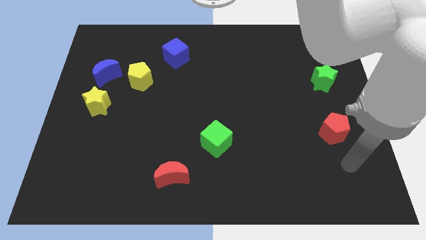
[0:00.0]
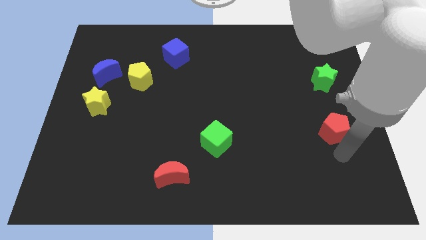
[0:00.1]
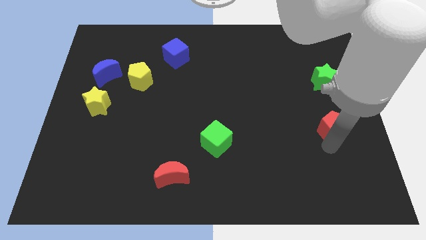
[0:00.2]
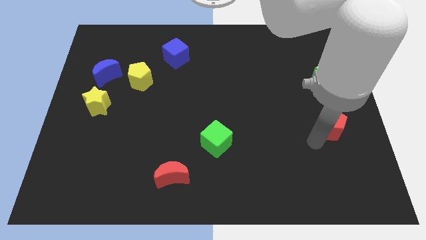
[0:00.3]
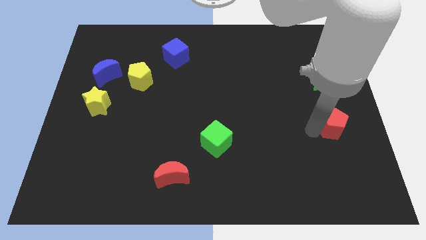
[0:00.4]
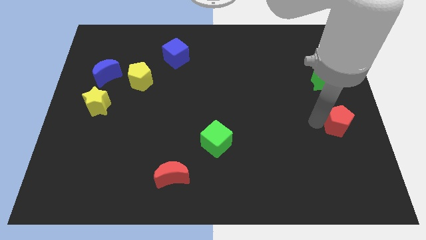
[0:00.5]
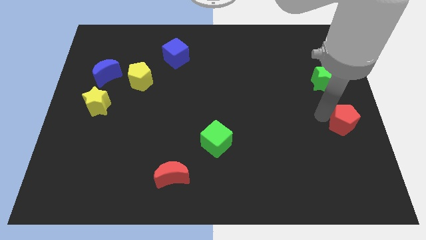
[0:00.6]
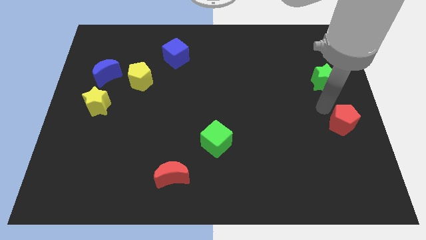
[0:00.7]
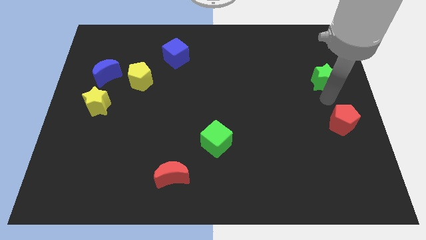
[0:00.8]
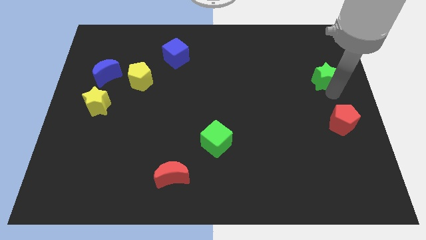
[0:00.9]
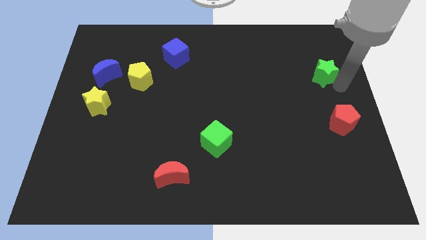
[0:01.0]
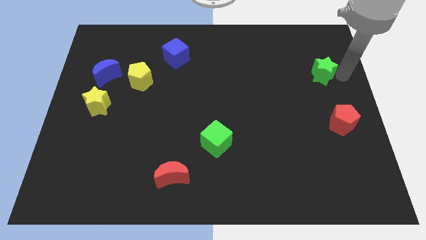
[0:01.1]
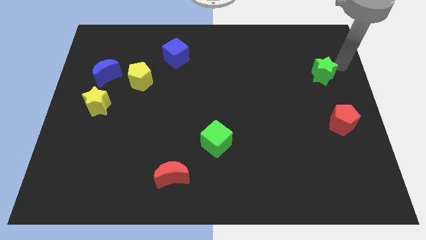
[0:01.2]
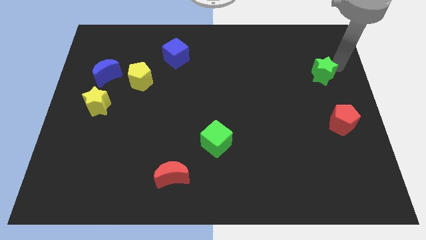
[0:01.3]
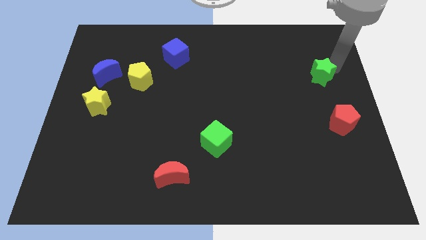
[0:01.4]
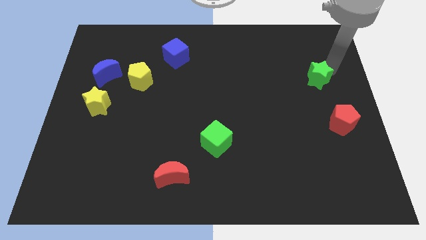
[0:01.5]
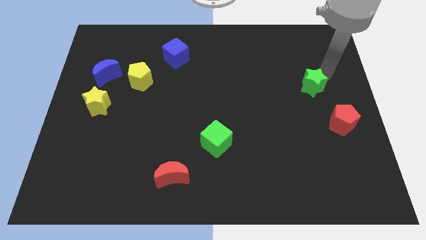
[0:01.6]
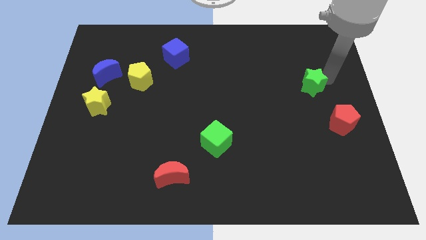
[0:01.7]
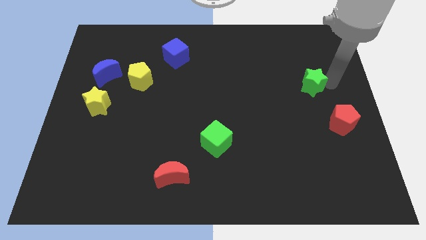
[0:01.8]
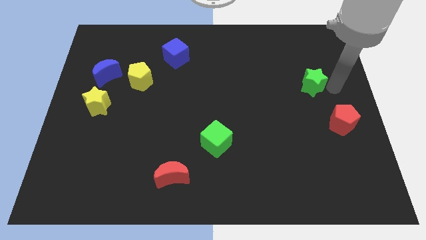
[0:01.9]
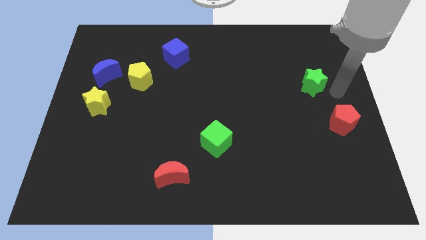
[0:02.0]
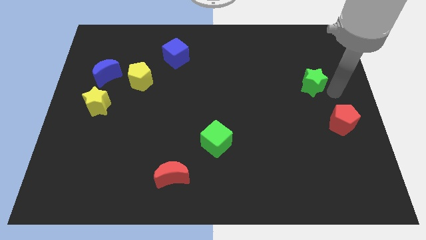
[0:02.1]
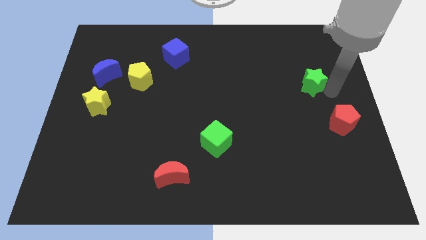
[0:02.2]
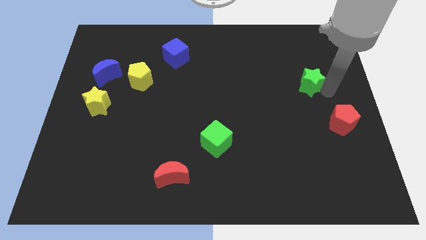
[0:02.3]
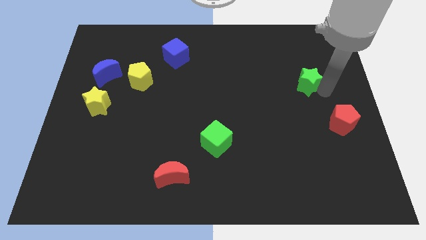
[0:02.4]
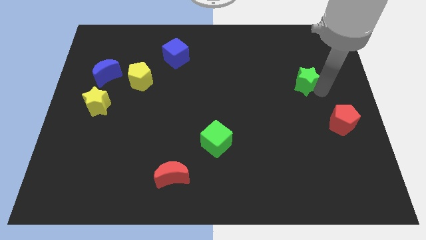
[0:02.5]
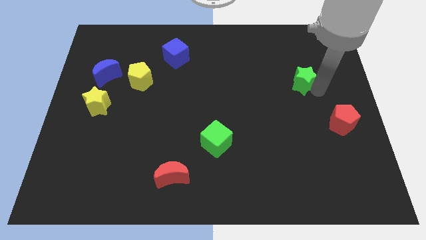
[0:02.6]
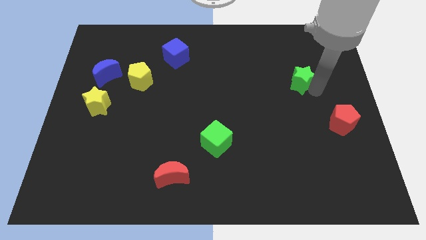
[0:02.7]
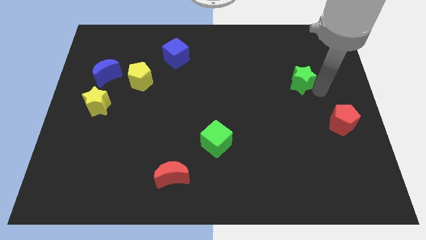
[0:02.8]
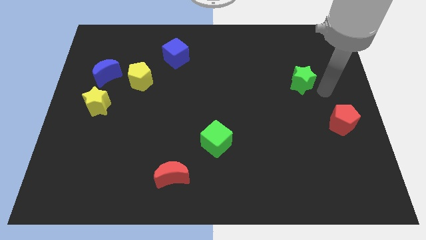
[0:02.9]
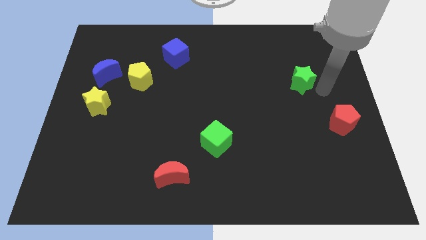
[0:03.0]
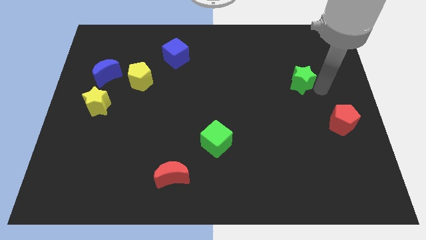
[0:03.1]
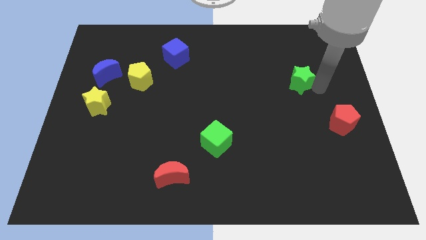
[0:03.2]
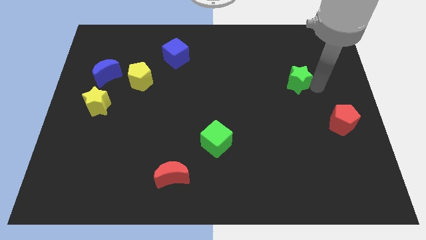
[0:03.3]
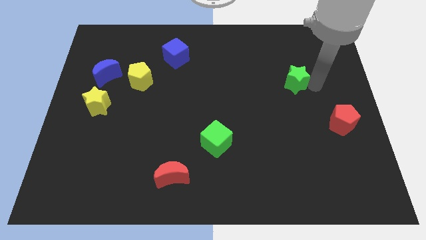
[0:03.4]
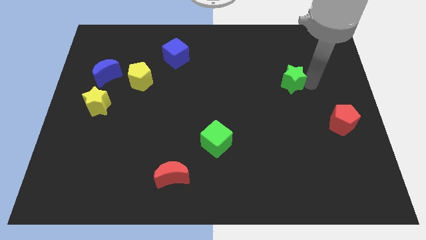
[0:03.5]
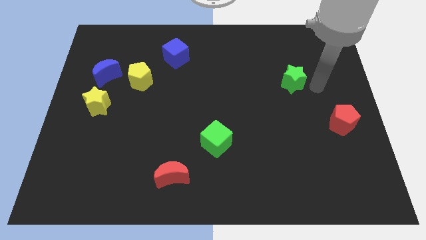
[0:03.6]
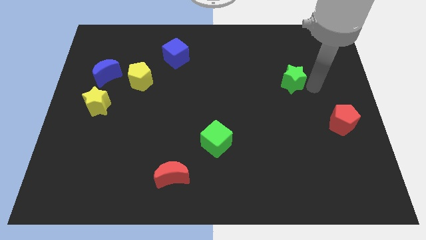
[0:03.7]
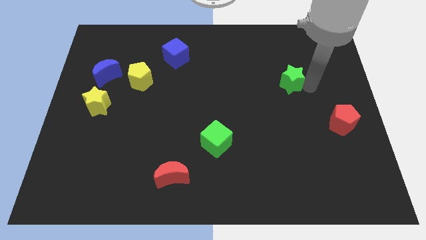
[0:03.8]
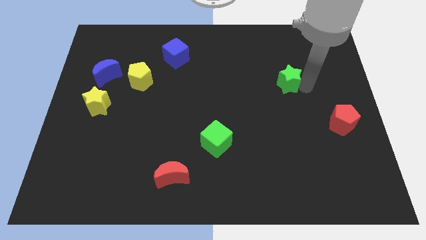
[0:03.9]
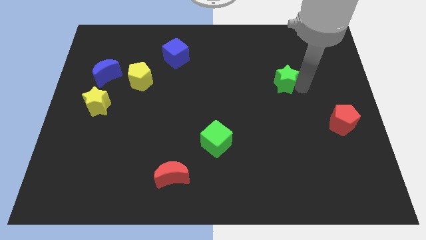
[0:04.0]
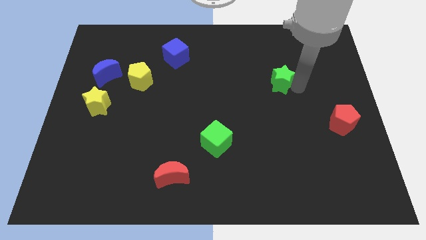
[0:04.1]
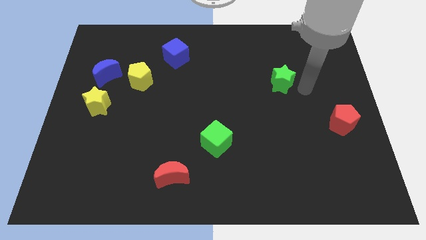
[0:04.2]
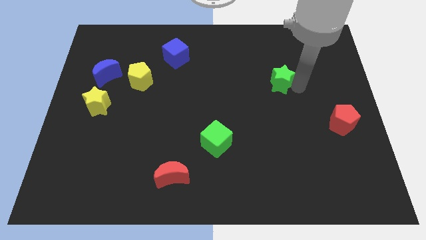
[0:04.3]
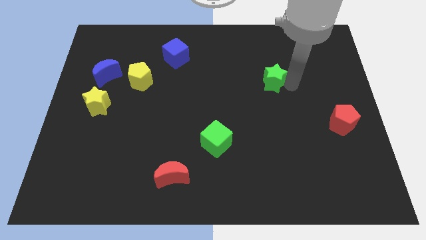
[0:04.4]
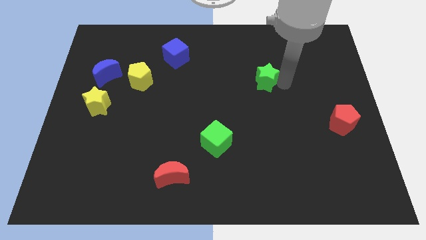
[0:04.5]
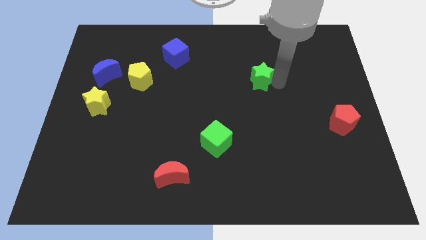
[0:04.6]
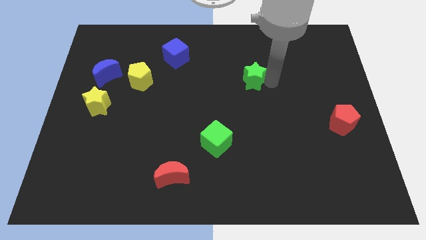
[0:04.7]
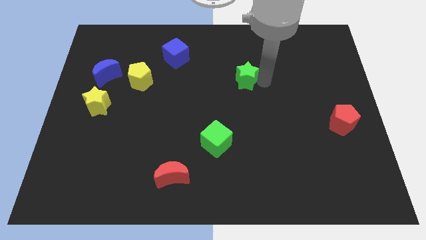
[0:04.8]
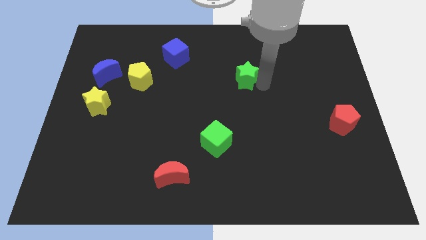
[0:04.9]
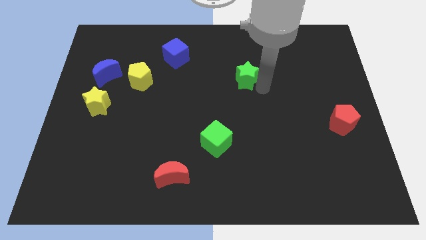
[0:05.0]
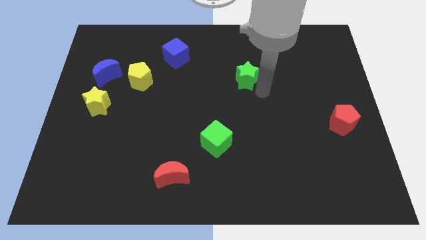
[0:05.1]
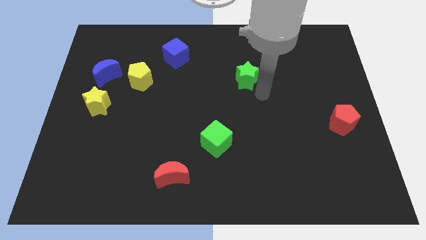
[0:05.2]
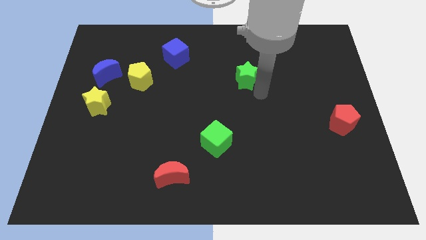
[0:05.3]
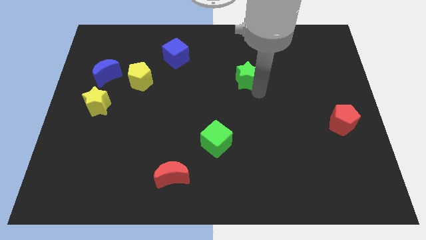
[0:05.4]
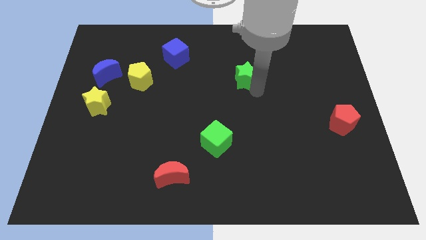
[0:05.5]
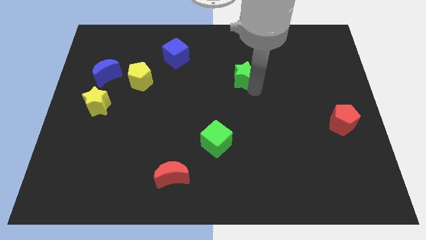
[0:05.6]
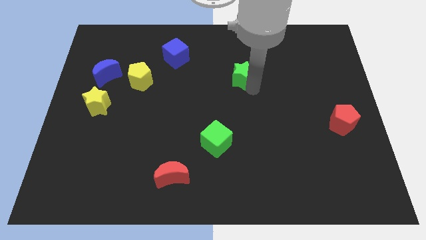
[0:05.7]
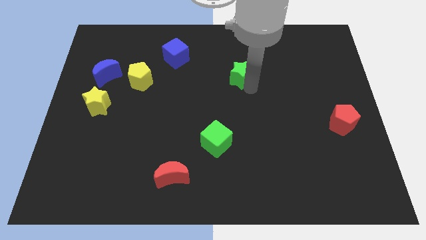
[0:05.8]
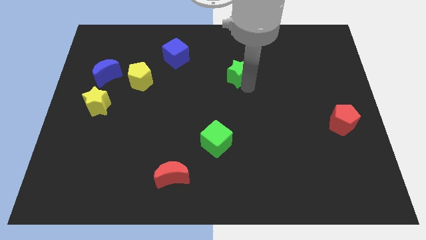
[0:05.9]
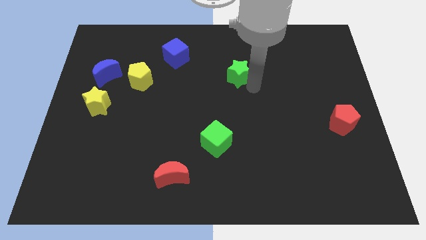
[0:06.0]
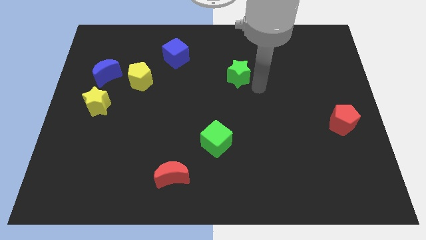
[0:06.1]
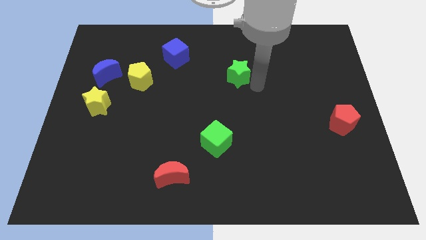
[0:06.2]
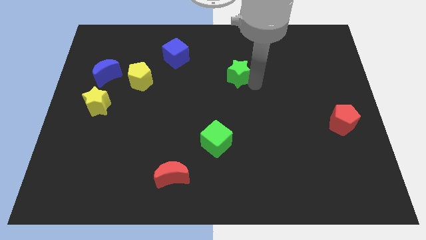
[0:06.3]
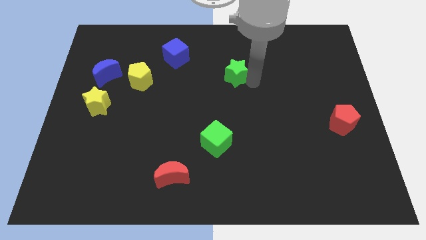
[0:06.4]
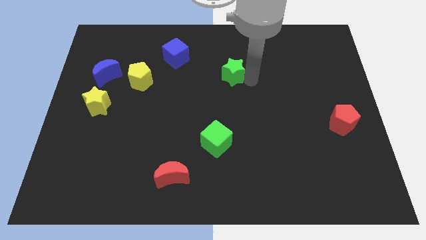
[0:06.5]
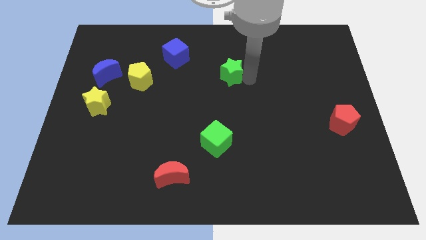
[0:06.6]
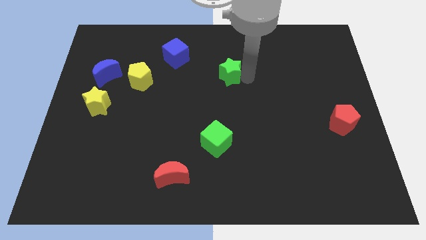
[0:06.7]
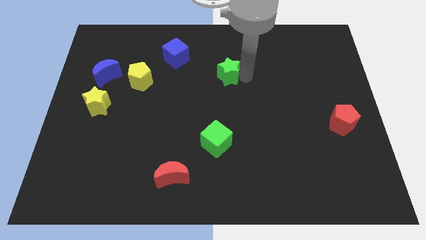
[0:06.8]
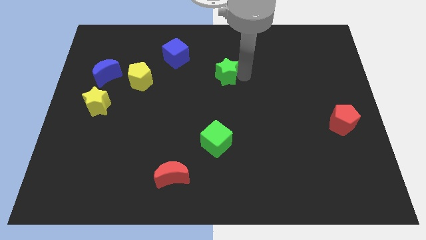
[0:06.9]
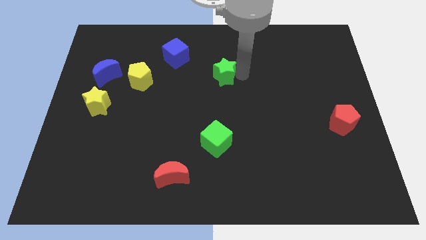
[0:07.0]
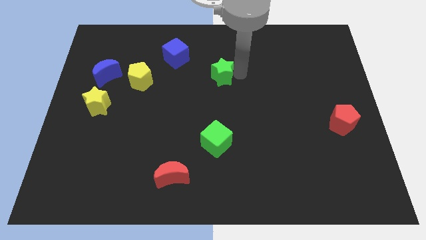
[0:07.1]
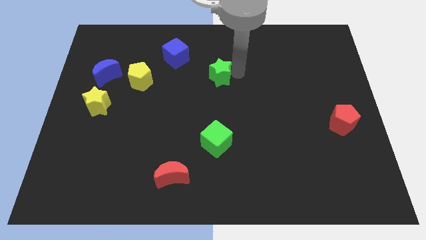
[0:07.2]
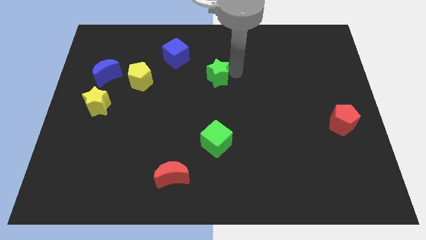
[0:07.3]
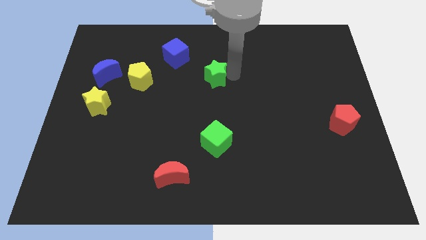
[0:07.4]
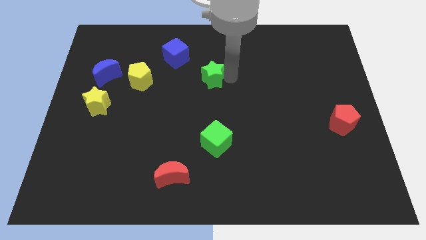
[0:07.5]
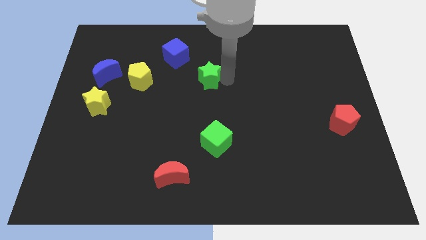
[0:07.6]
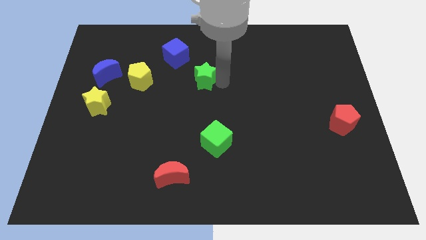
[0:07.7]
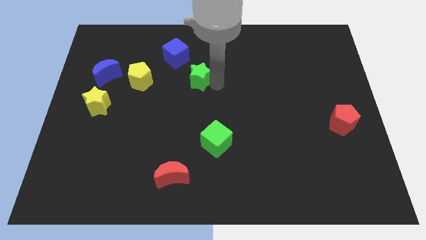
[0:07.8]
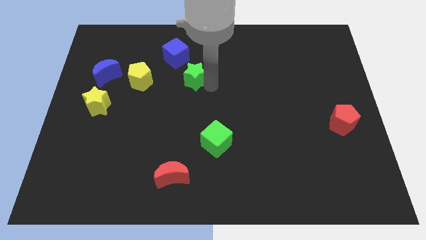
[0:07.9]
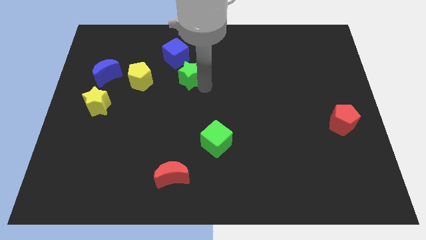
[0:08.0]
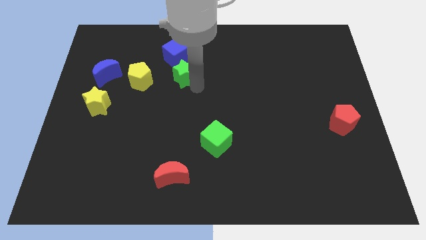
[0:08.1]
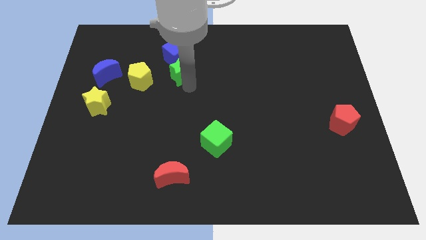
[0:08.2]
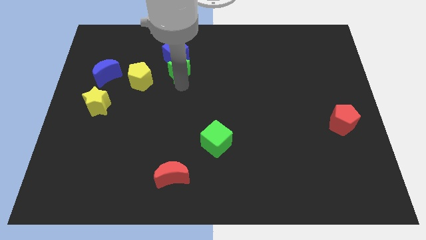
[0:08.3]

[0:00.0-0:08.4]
put the green star towards the blue cube
